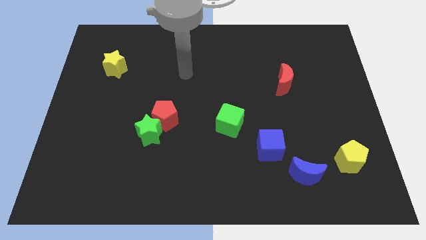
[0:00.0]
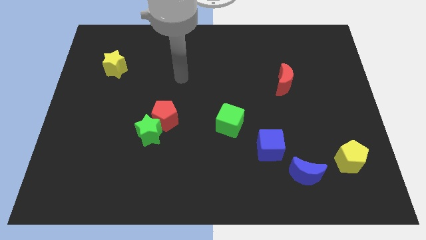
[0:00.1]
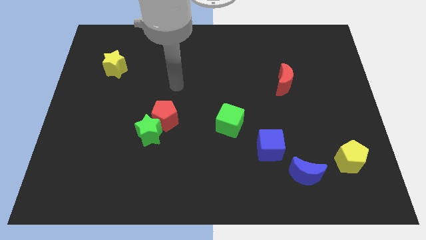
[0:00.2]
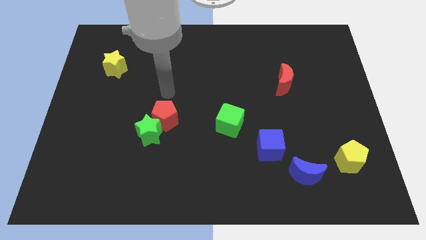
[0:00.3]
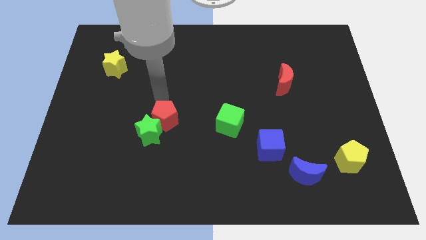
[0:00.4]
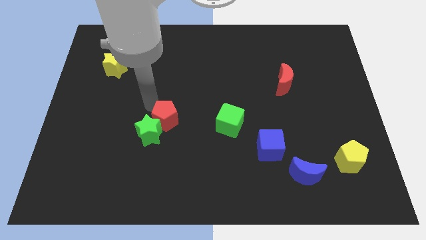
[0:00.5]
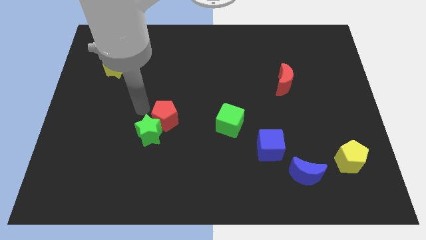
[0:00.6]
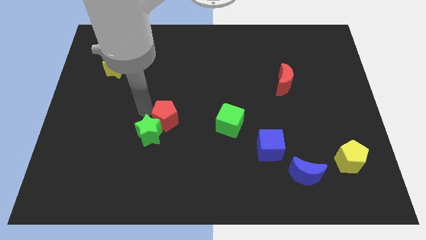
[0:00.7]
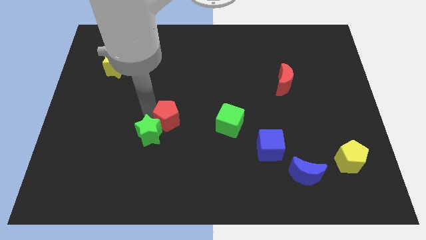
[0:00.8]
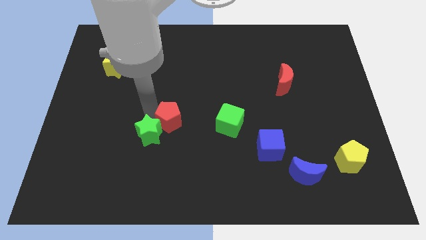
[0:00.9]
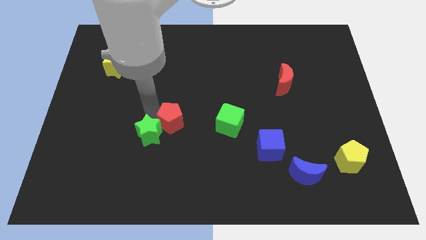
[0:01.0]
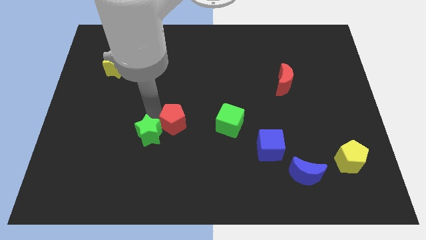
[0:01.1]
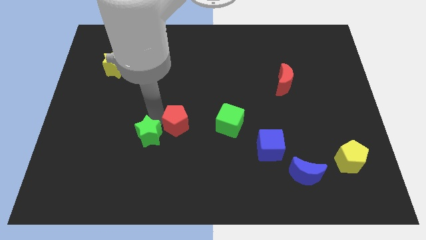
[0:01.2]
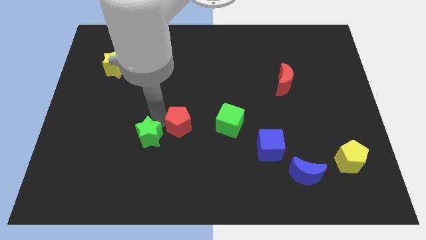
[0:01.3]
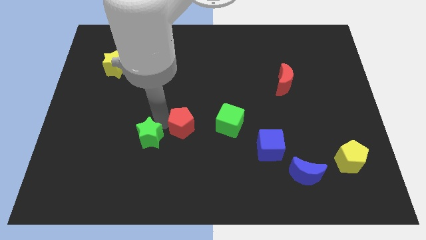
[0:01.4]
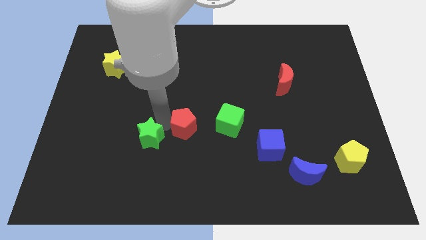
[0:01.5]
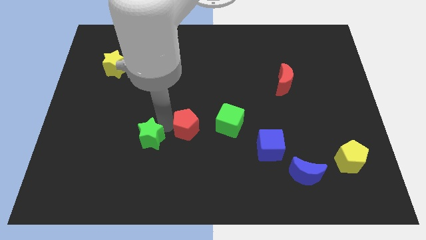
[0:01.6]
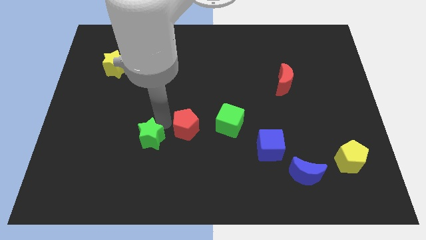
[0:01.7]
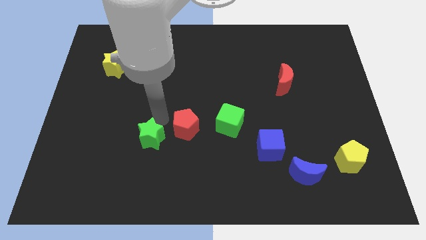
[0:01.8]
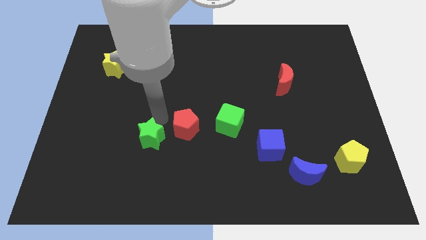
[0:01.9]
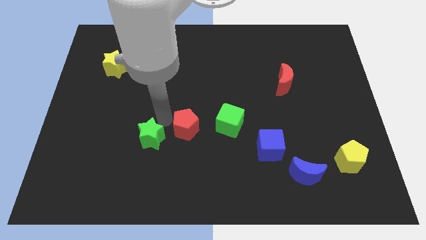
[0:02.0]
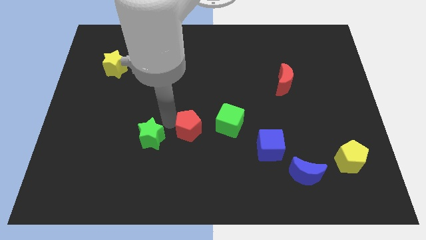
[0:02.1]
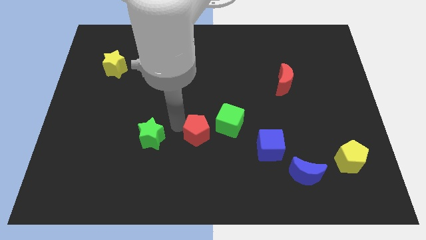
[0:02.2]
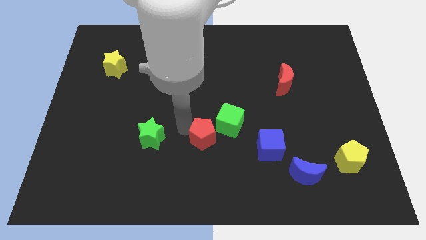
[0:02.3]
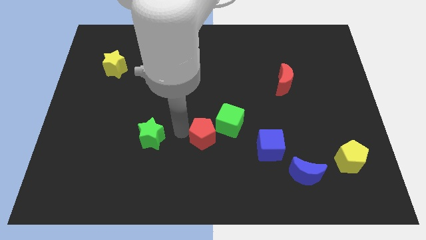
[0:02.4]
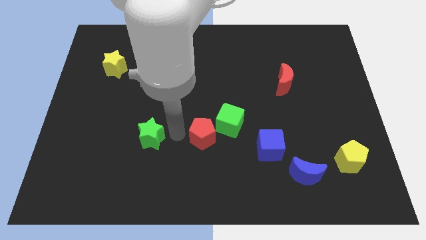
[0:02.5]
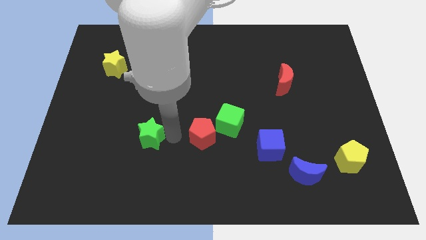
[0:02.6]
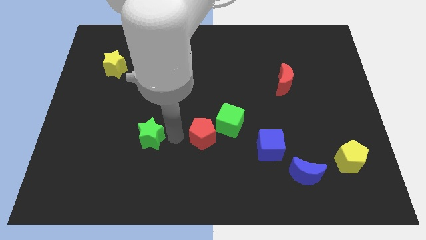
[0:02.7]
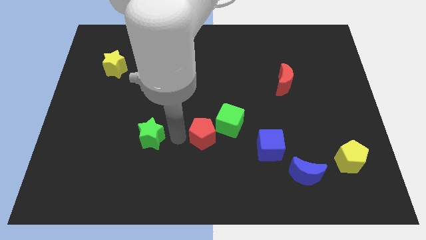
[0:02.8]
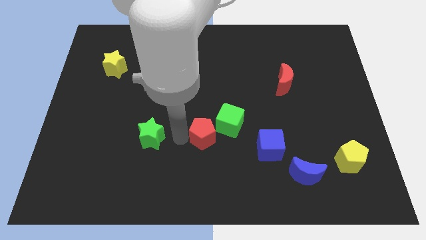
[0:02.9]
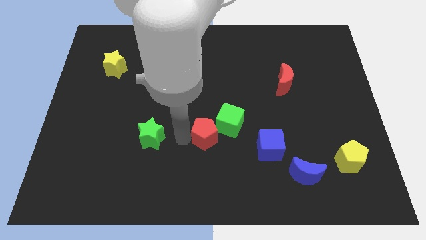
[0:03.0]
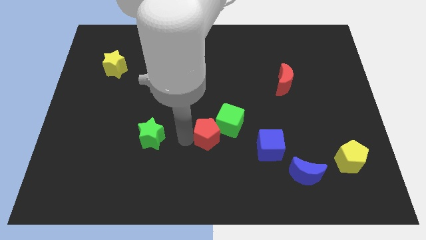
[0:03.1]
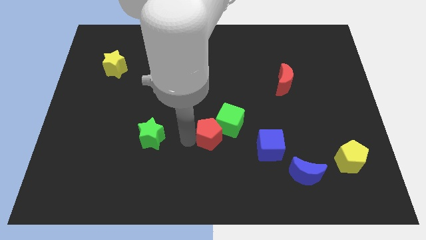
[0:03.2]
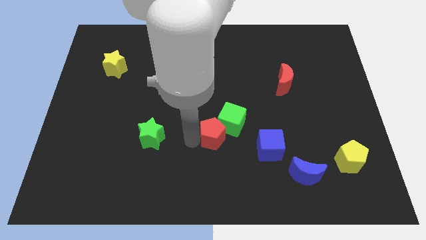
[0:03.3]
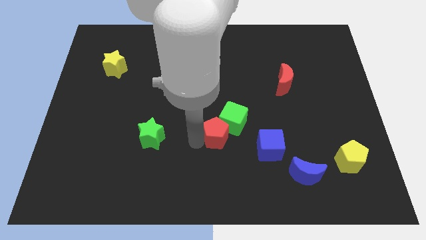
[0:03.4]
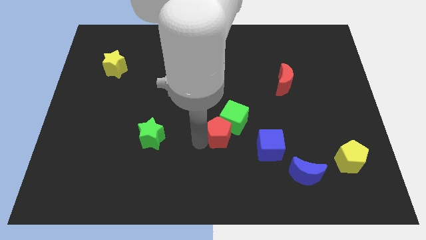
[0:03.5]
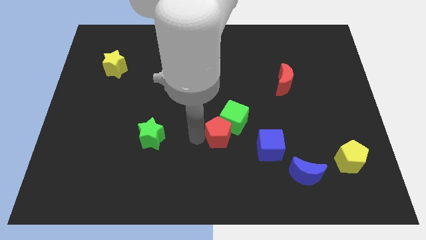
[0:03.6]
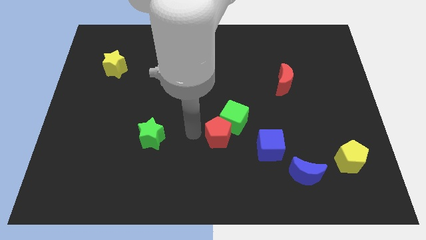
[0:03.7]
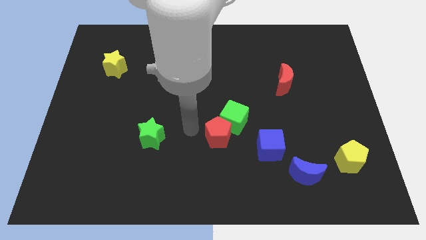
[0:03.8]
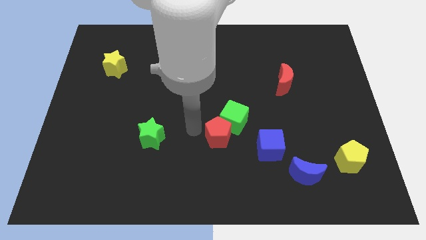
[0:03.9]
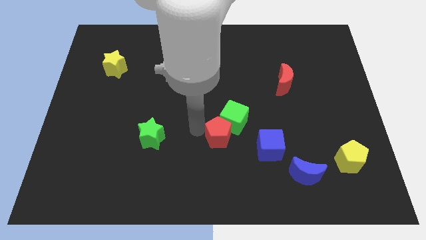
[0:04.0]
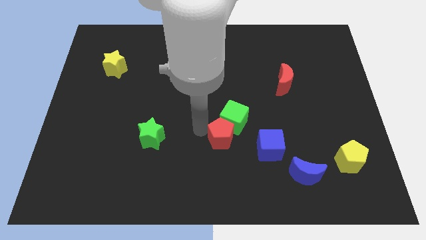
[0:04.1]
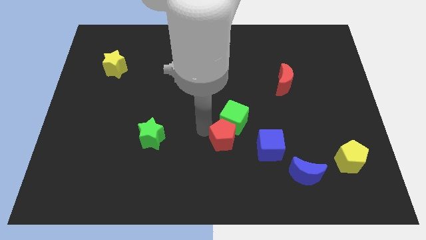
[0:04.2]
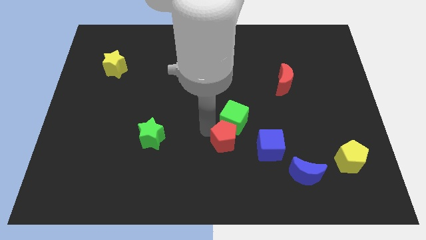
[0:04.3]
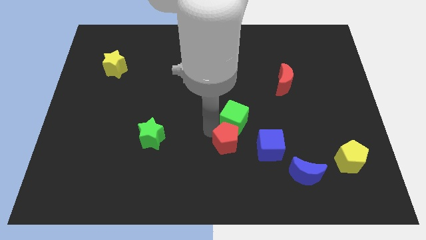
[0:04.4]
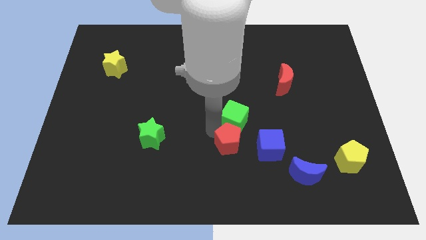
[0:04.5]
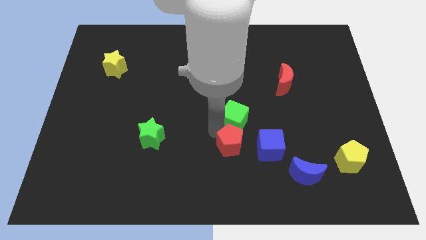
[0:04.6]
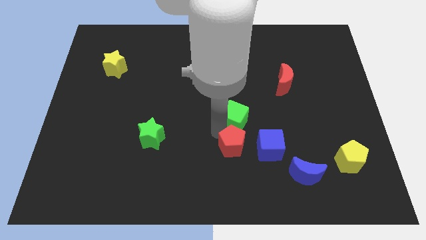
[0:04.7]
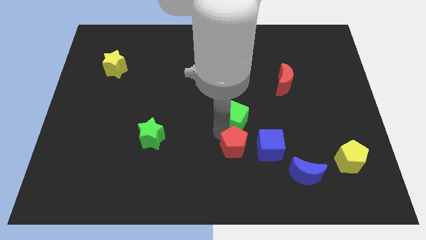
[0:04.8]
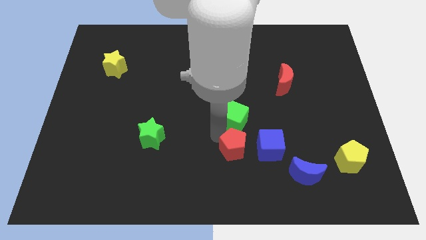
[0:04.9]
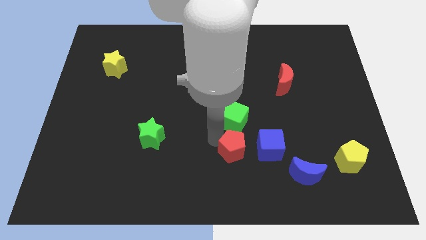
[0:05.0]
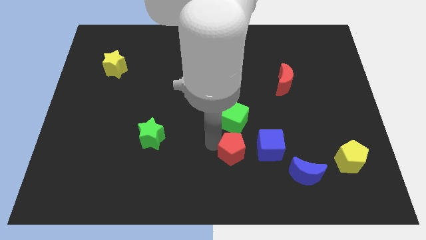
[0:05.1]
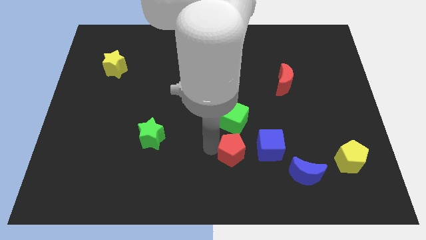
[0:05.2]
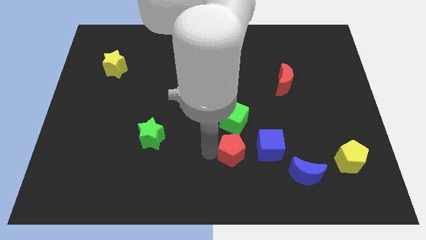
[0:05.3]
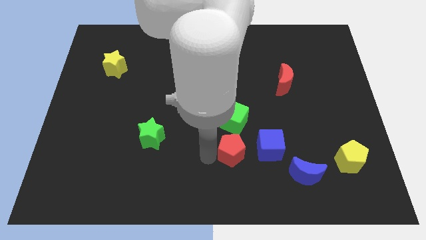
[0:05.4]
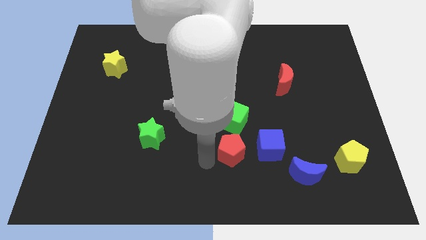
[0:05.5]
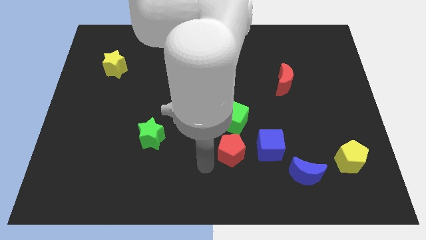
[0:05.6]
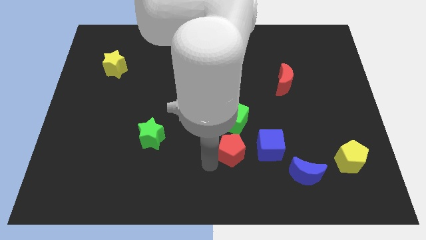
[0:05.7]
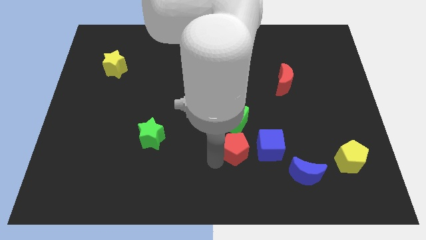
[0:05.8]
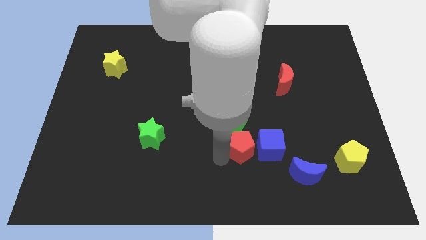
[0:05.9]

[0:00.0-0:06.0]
put the red pentagon next to the blue cube
